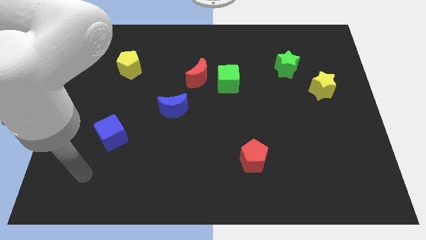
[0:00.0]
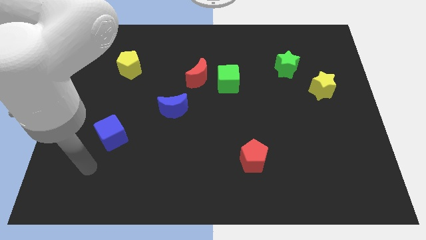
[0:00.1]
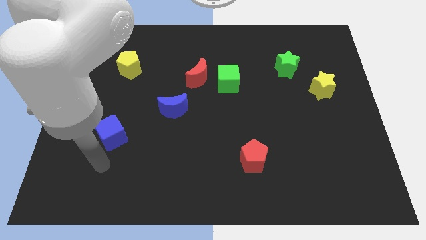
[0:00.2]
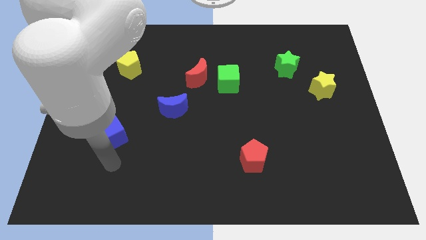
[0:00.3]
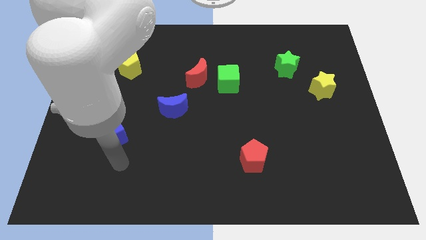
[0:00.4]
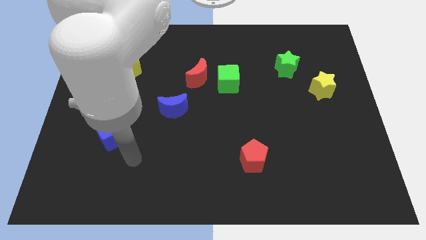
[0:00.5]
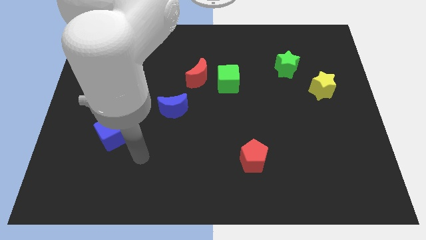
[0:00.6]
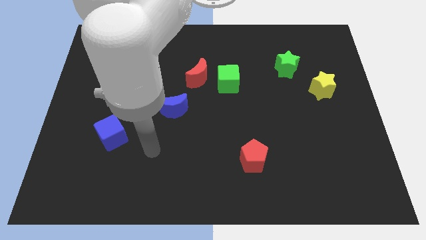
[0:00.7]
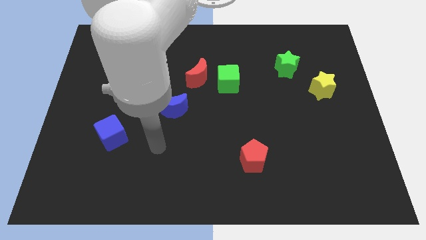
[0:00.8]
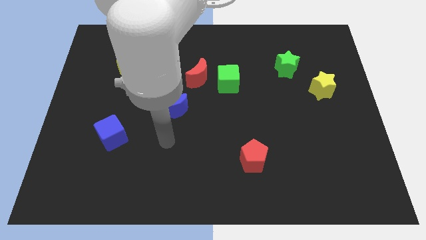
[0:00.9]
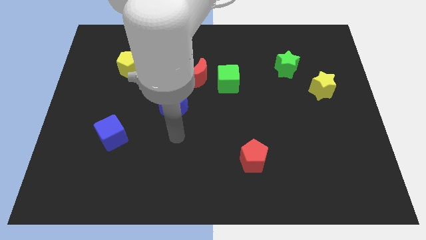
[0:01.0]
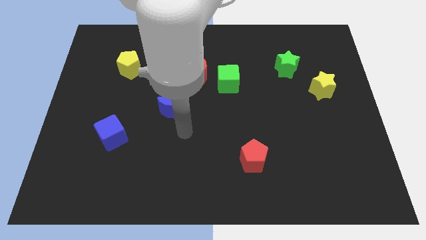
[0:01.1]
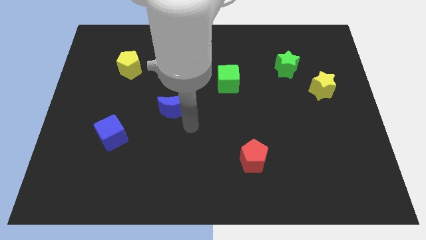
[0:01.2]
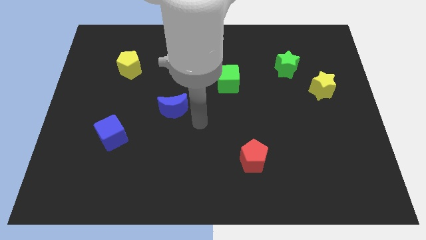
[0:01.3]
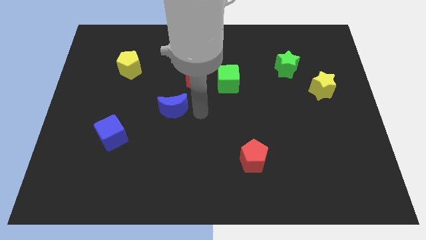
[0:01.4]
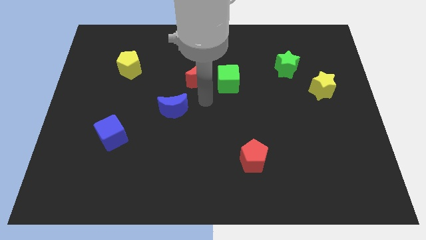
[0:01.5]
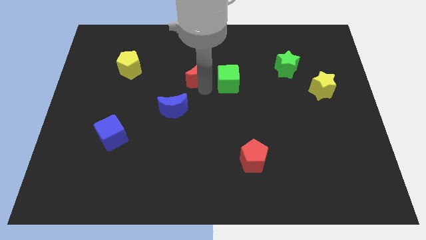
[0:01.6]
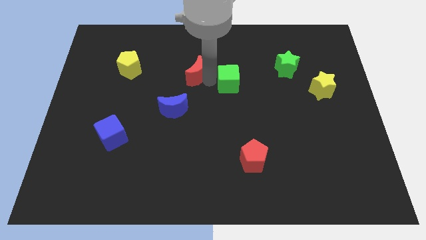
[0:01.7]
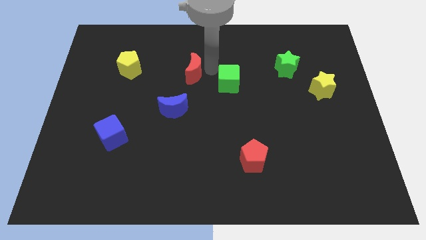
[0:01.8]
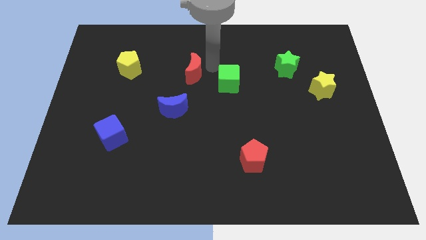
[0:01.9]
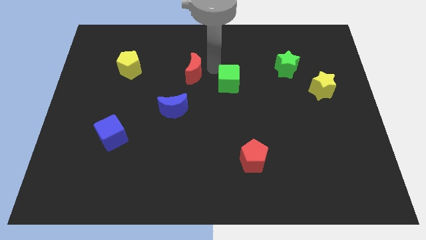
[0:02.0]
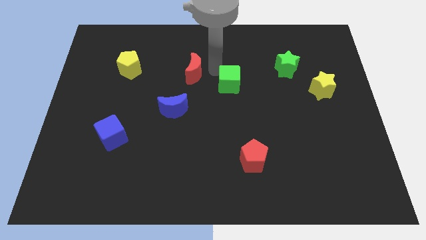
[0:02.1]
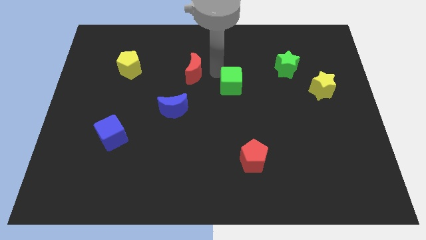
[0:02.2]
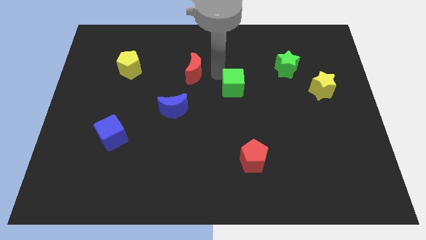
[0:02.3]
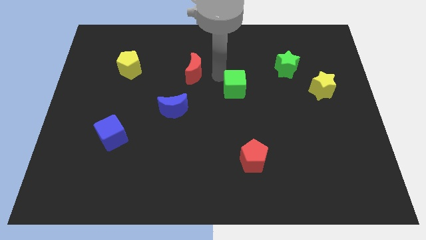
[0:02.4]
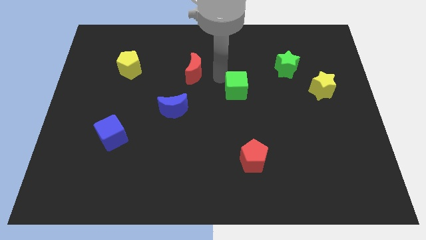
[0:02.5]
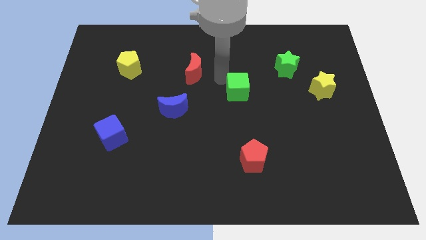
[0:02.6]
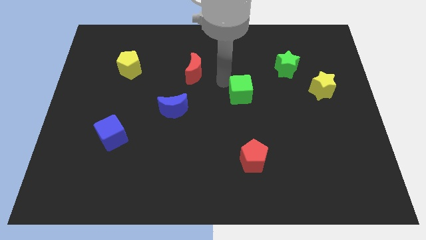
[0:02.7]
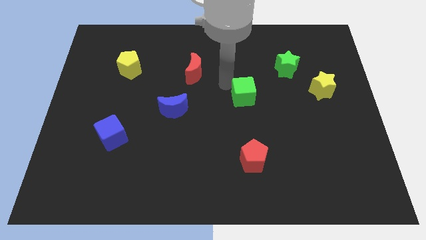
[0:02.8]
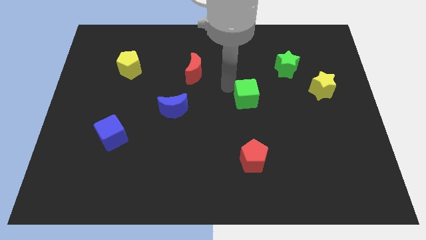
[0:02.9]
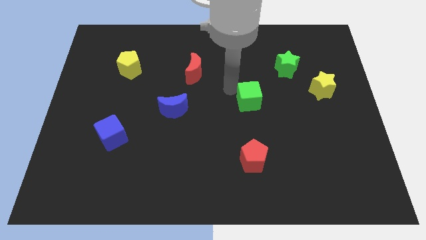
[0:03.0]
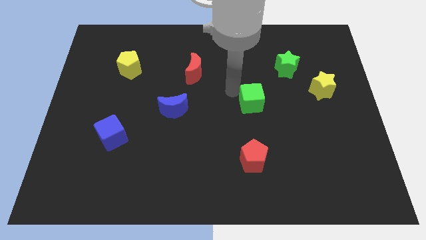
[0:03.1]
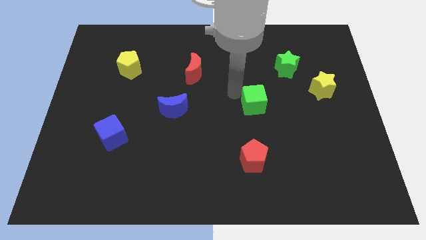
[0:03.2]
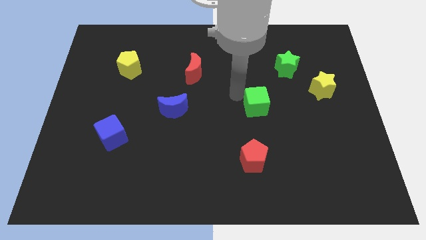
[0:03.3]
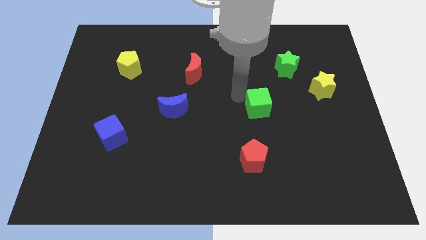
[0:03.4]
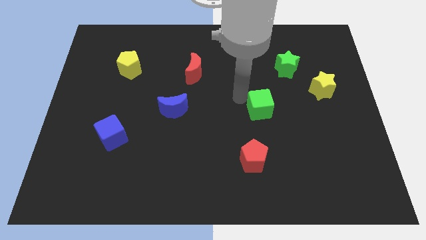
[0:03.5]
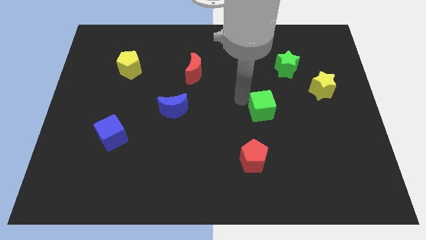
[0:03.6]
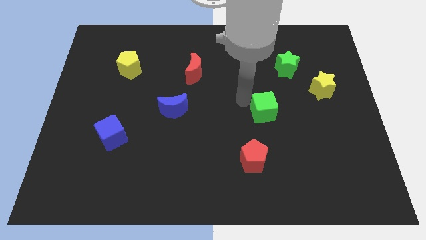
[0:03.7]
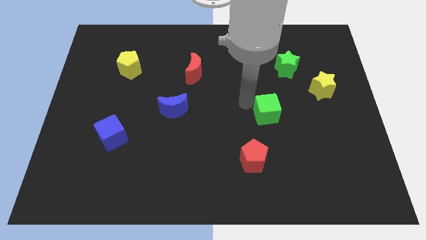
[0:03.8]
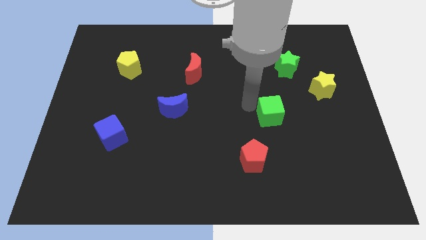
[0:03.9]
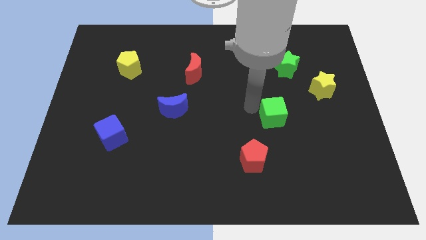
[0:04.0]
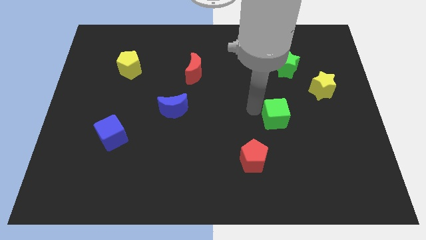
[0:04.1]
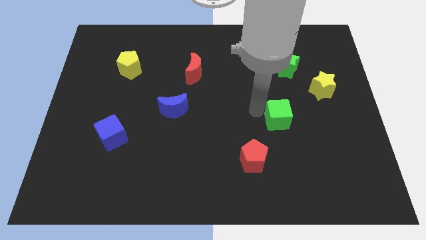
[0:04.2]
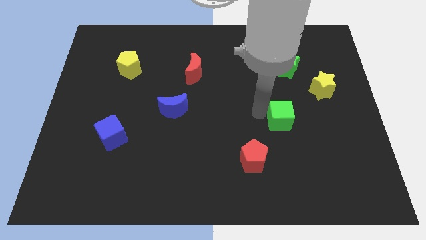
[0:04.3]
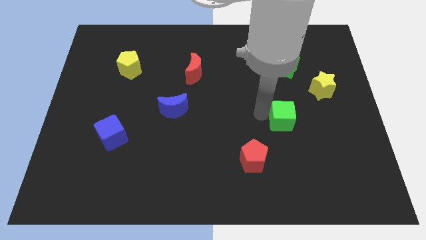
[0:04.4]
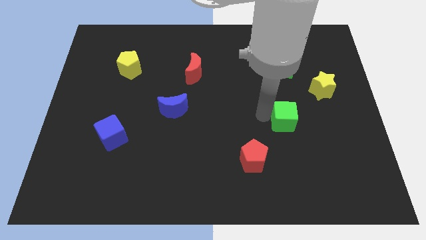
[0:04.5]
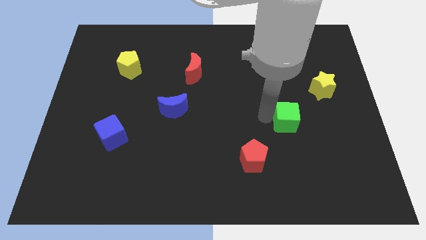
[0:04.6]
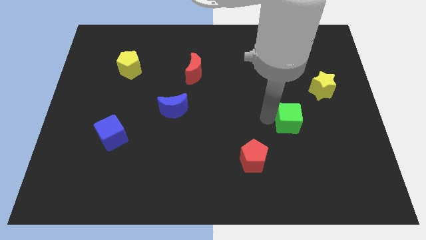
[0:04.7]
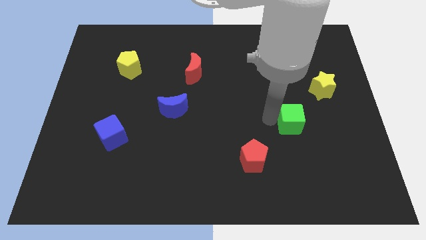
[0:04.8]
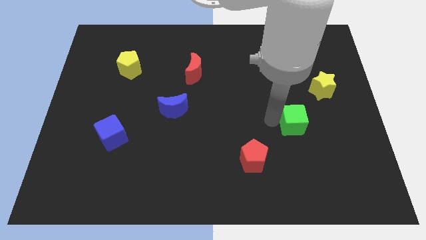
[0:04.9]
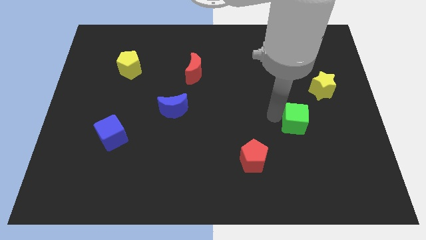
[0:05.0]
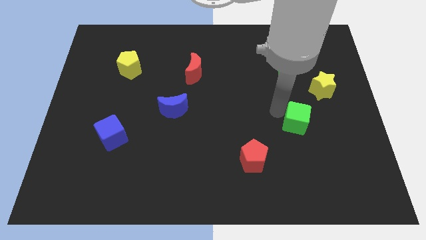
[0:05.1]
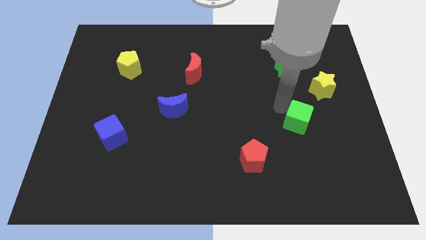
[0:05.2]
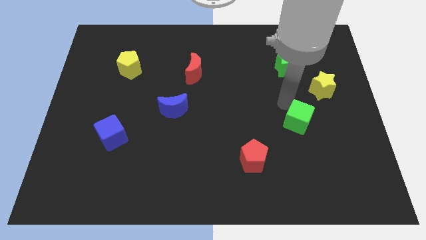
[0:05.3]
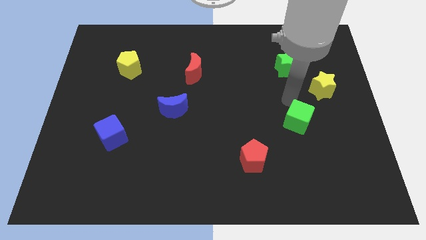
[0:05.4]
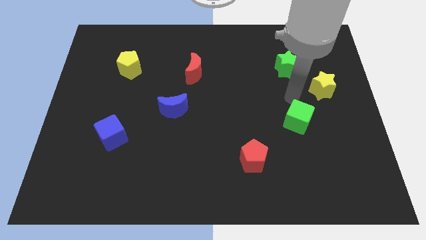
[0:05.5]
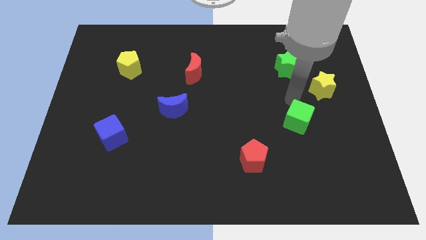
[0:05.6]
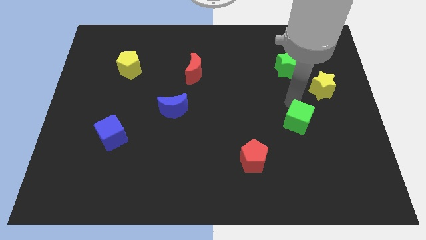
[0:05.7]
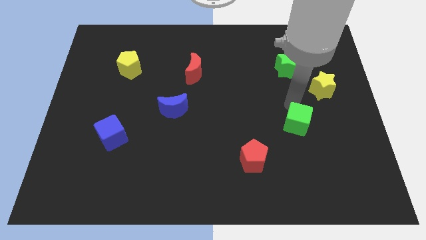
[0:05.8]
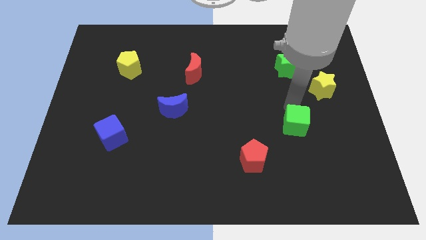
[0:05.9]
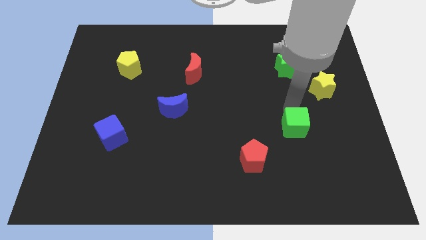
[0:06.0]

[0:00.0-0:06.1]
push the green cube down and right

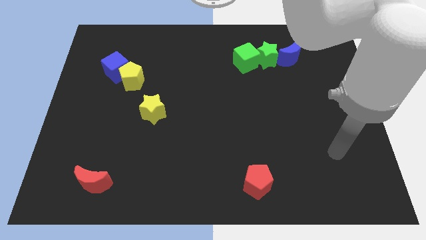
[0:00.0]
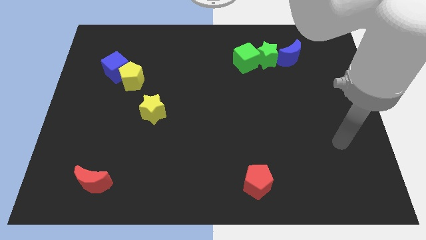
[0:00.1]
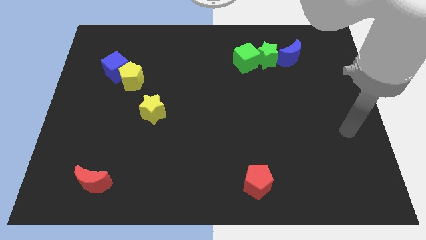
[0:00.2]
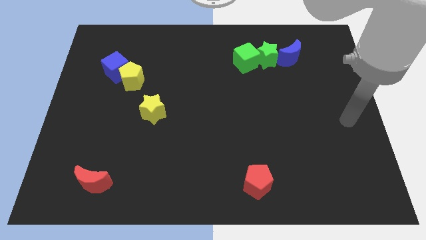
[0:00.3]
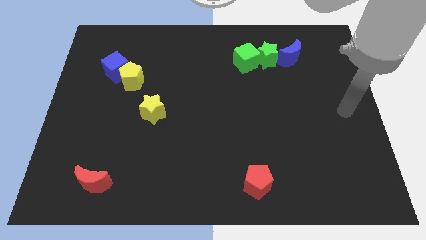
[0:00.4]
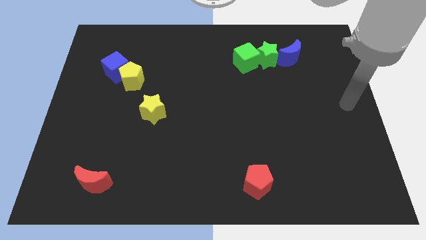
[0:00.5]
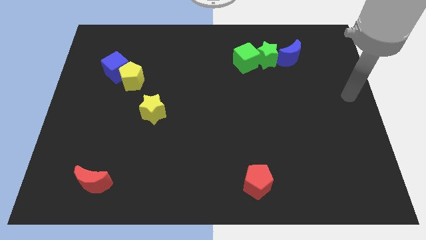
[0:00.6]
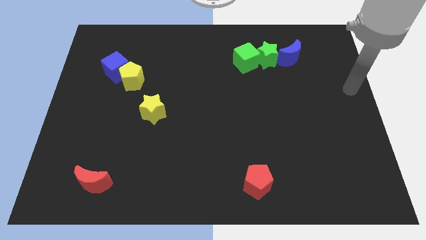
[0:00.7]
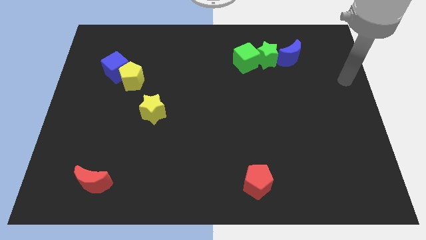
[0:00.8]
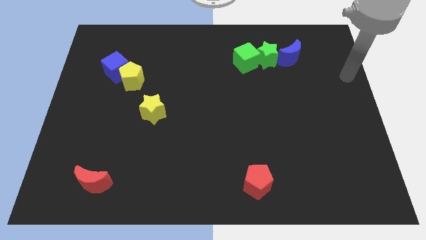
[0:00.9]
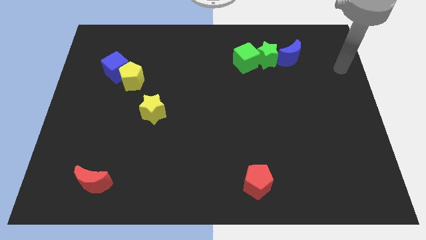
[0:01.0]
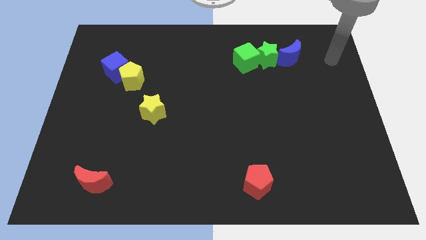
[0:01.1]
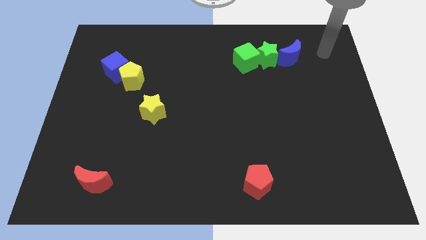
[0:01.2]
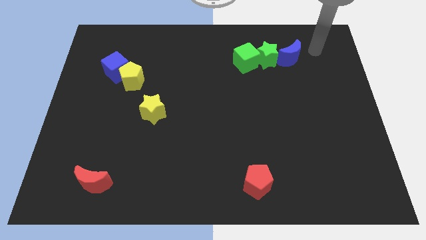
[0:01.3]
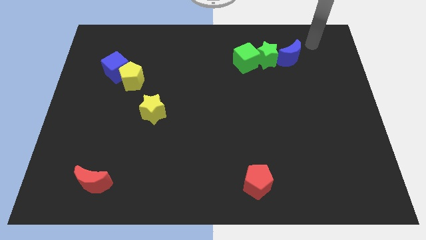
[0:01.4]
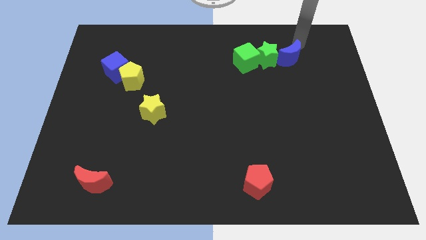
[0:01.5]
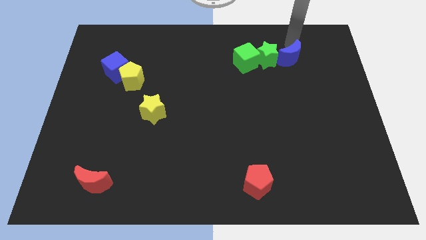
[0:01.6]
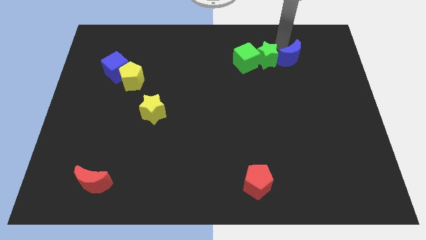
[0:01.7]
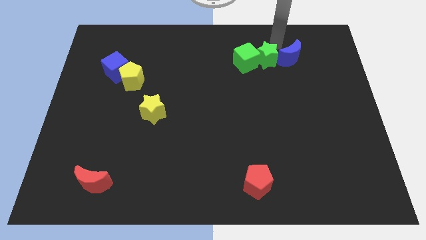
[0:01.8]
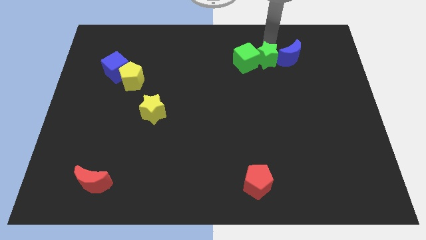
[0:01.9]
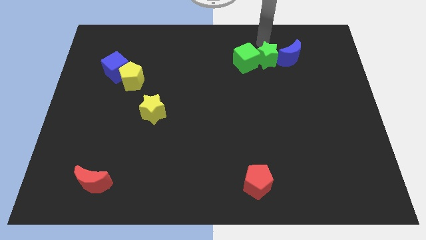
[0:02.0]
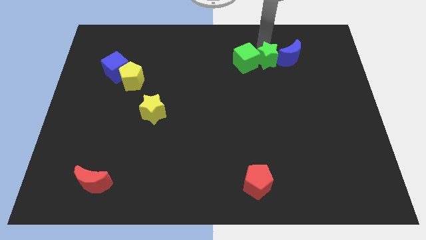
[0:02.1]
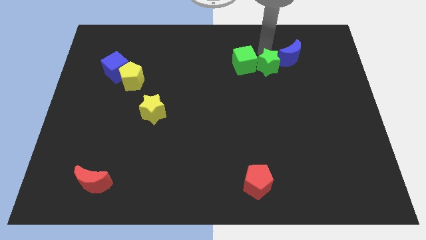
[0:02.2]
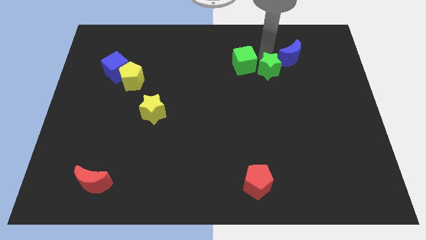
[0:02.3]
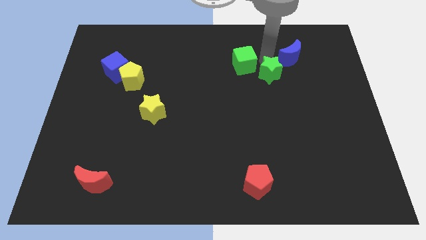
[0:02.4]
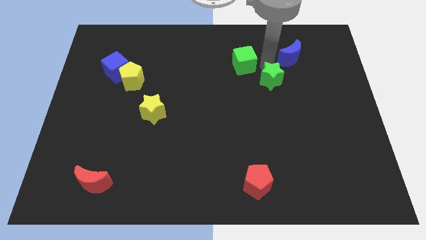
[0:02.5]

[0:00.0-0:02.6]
slide the green star downwards a little bit
